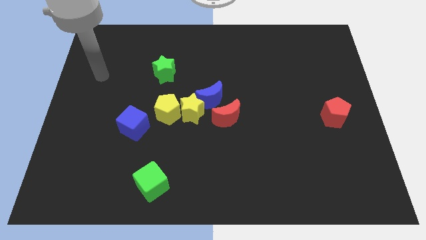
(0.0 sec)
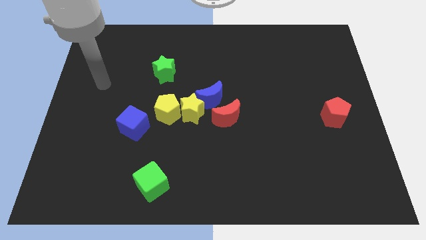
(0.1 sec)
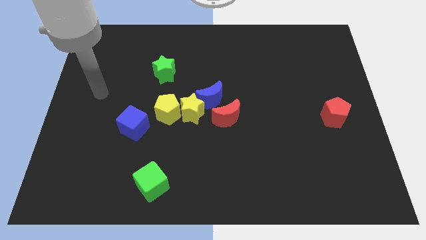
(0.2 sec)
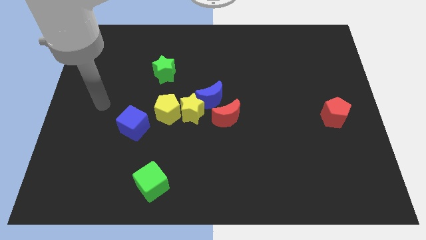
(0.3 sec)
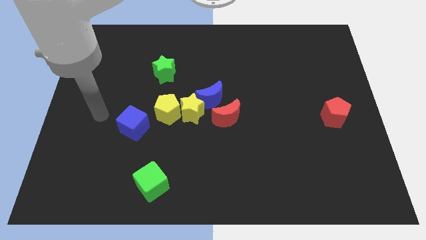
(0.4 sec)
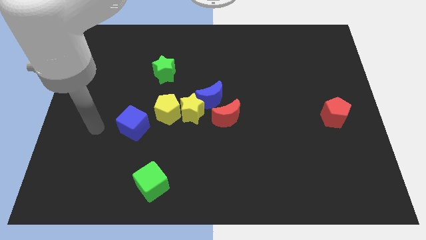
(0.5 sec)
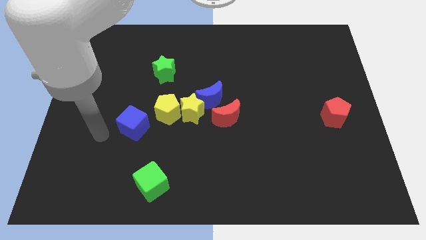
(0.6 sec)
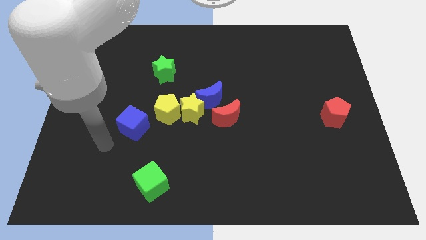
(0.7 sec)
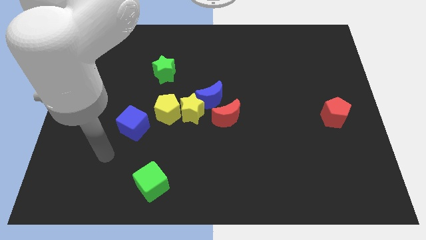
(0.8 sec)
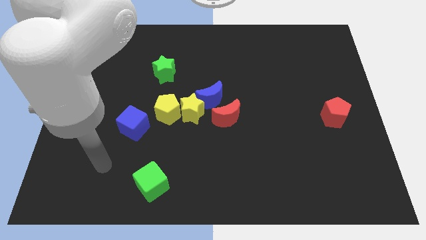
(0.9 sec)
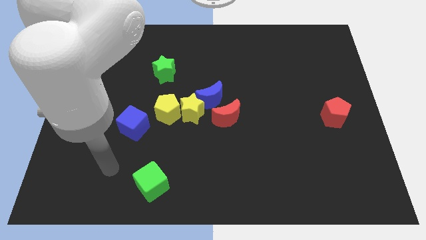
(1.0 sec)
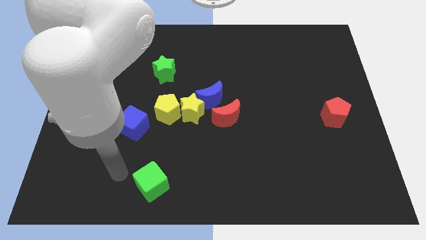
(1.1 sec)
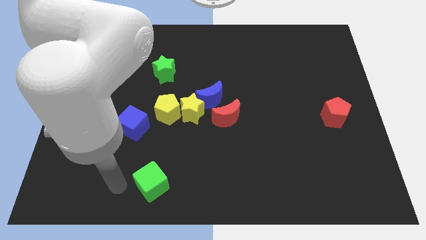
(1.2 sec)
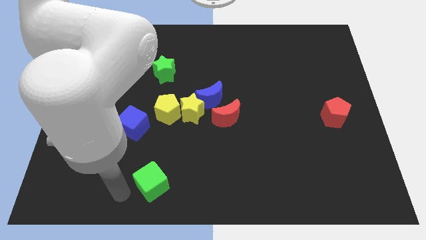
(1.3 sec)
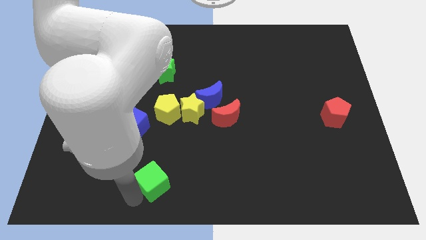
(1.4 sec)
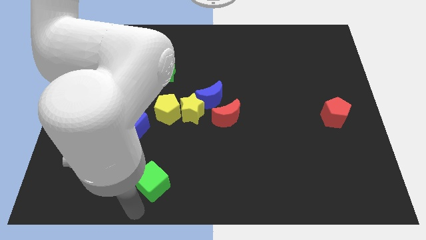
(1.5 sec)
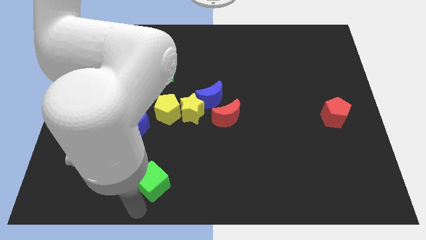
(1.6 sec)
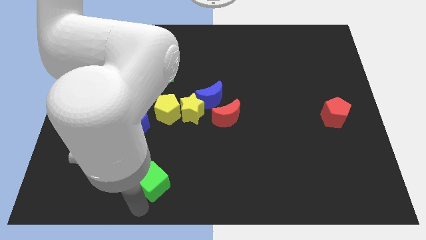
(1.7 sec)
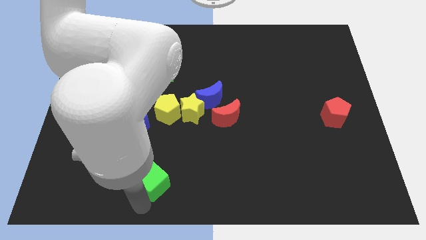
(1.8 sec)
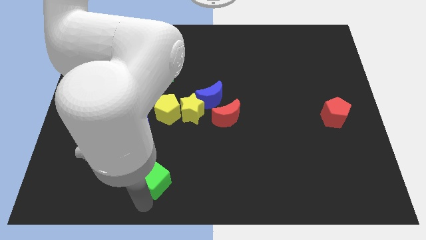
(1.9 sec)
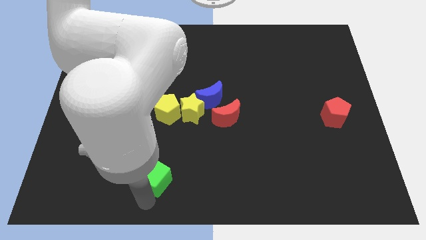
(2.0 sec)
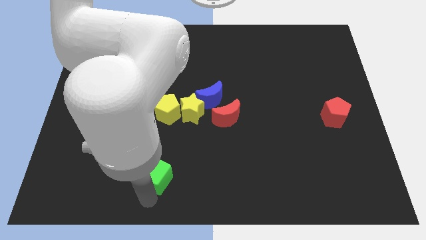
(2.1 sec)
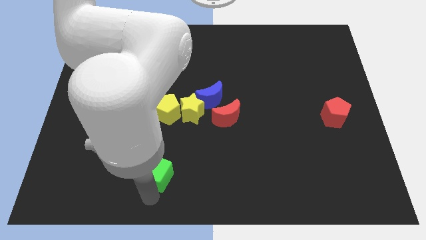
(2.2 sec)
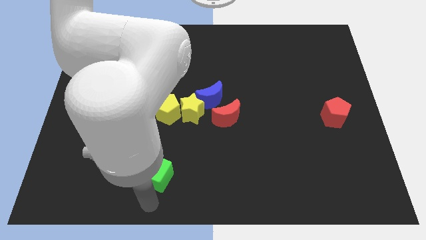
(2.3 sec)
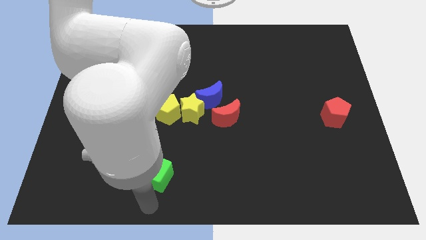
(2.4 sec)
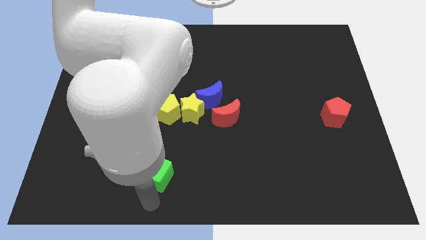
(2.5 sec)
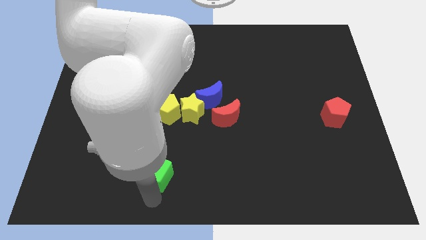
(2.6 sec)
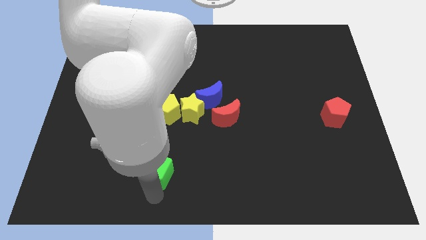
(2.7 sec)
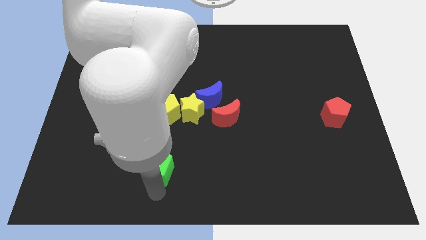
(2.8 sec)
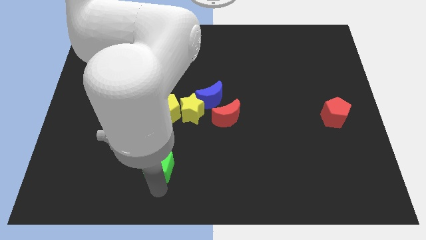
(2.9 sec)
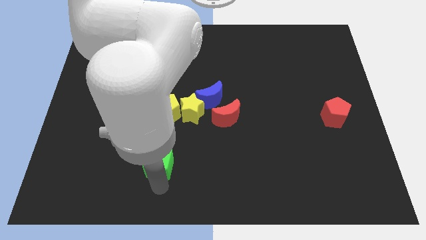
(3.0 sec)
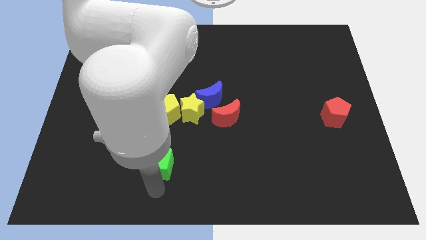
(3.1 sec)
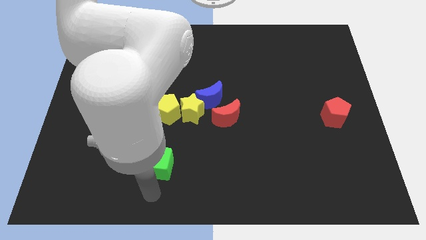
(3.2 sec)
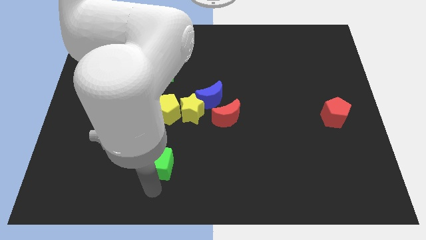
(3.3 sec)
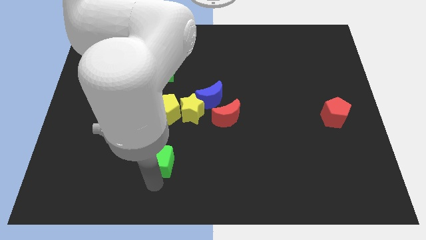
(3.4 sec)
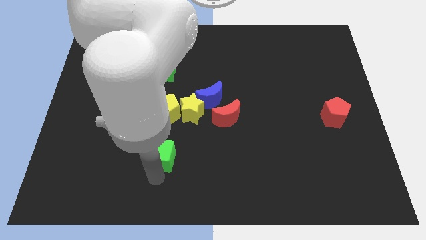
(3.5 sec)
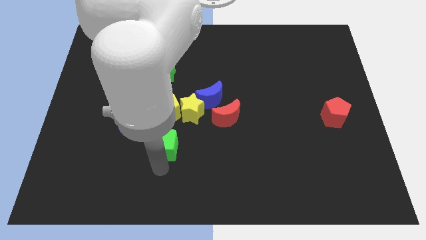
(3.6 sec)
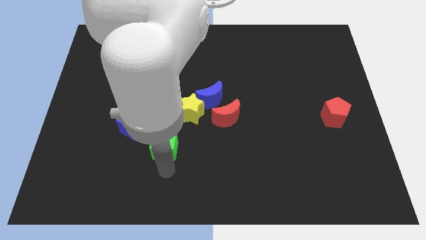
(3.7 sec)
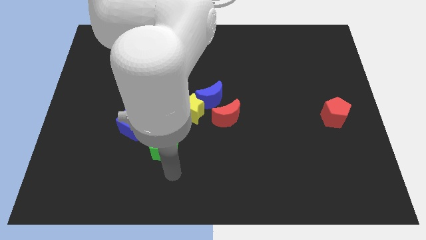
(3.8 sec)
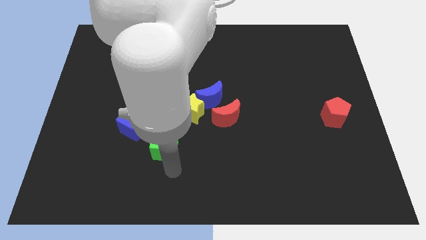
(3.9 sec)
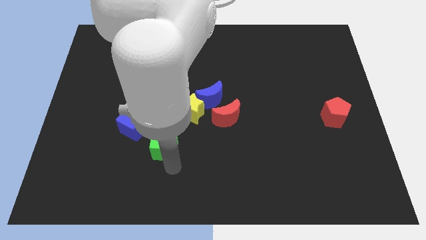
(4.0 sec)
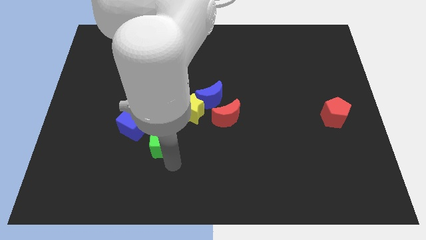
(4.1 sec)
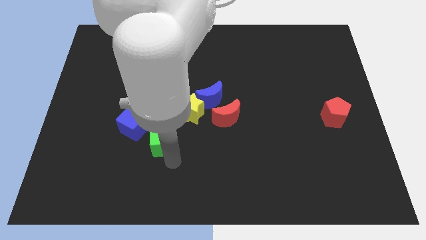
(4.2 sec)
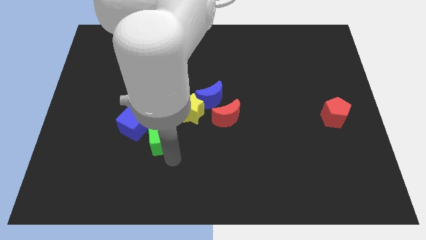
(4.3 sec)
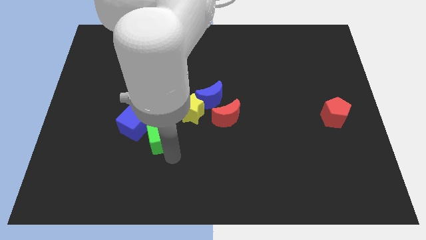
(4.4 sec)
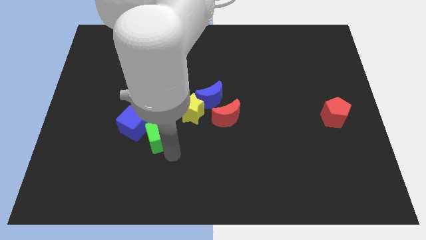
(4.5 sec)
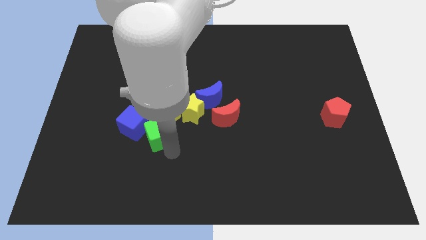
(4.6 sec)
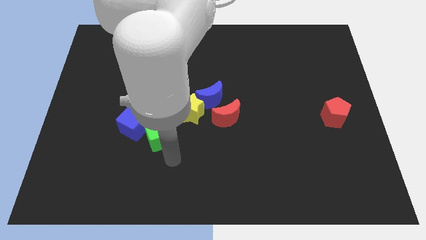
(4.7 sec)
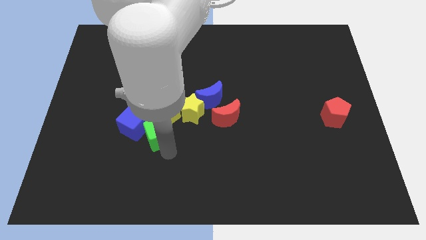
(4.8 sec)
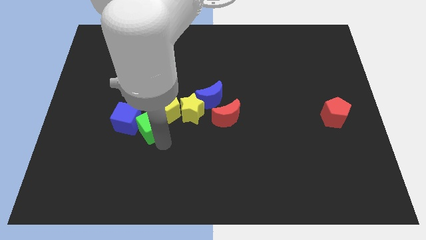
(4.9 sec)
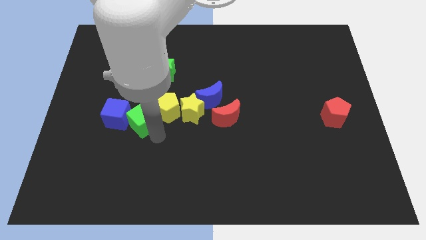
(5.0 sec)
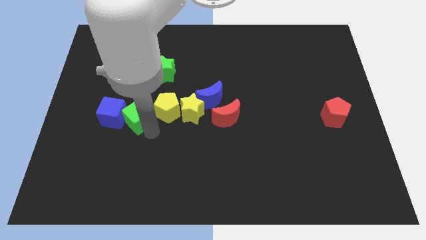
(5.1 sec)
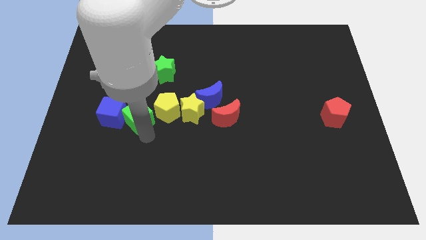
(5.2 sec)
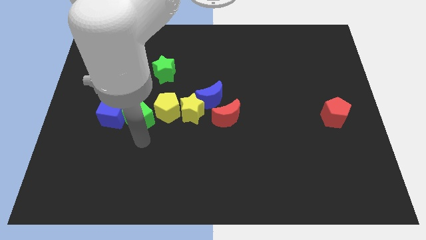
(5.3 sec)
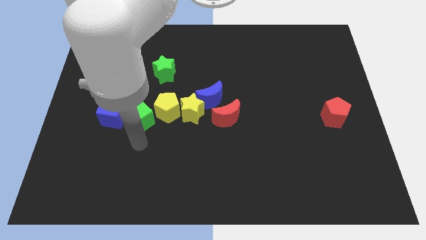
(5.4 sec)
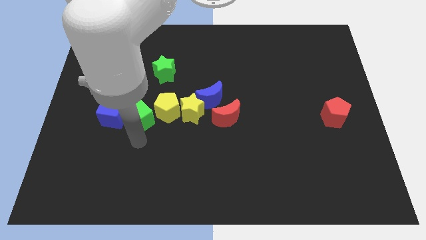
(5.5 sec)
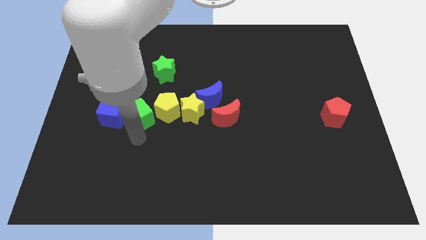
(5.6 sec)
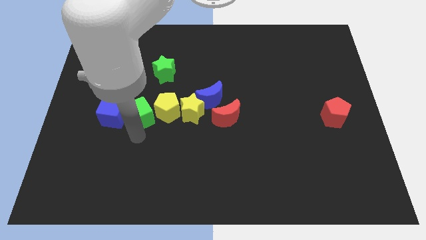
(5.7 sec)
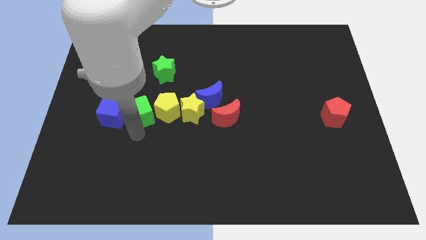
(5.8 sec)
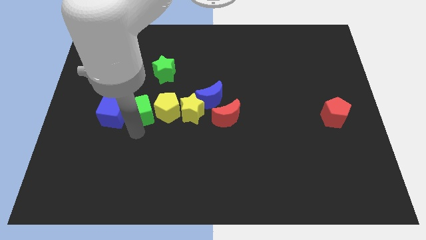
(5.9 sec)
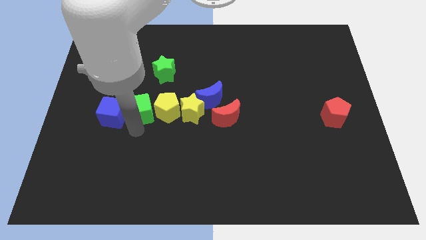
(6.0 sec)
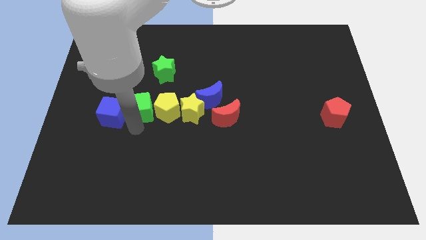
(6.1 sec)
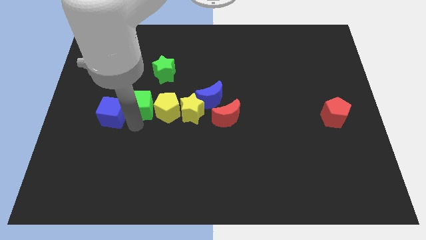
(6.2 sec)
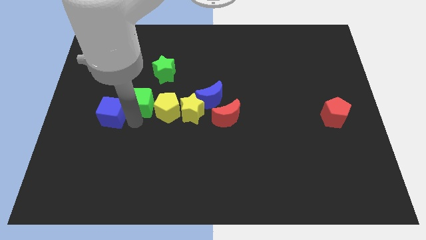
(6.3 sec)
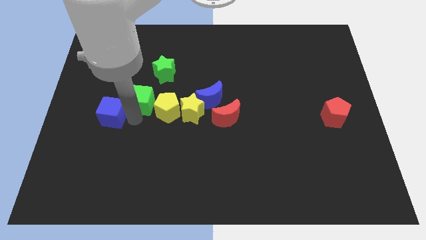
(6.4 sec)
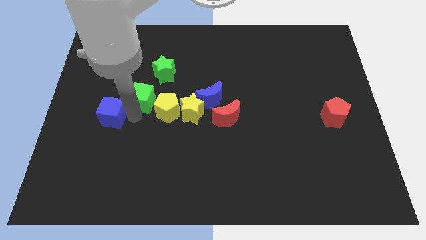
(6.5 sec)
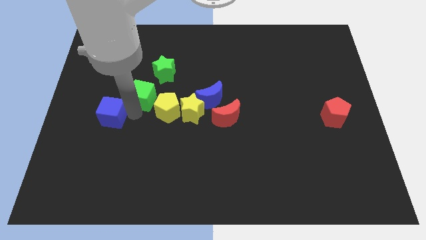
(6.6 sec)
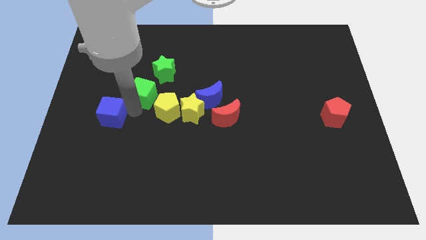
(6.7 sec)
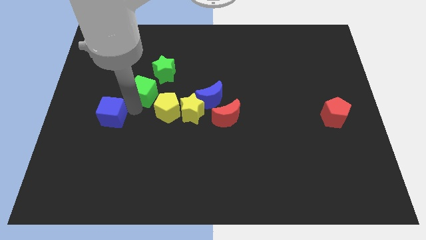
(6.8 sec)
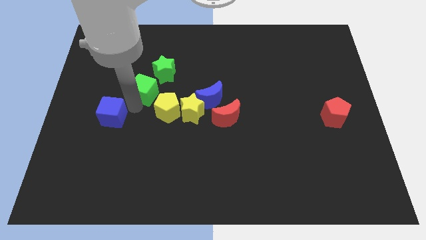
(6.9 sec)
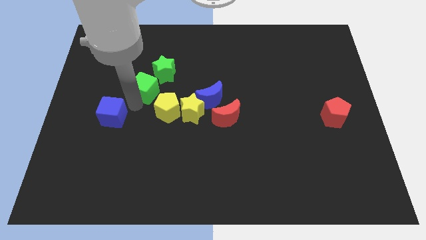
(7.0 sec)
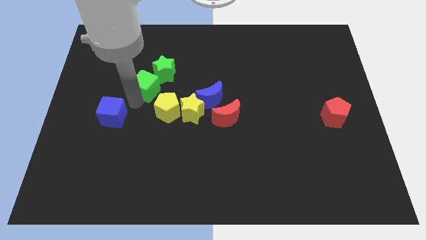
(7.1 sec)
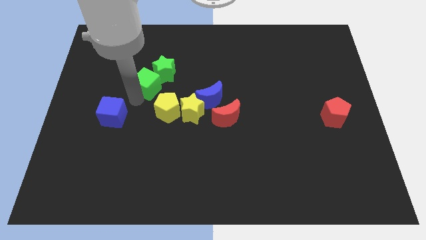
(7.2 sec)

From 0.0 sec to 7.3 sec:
slide the green cube close to the green star
